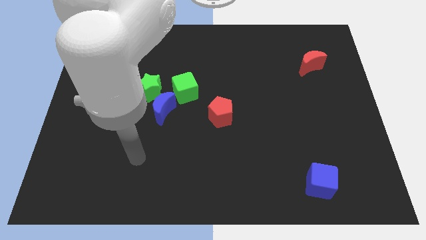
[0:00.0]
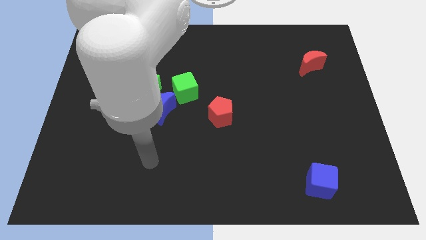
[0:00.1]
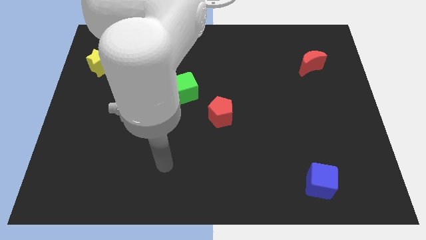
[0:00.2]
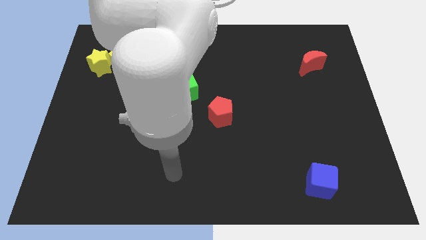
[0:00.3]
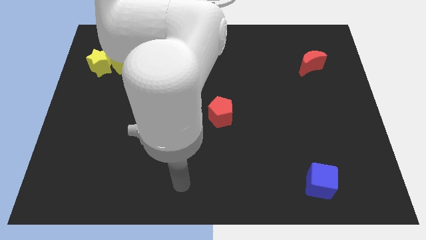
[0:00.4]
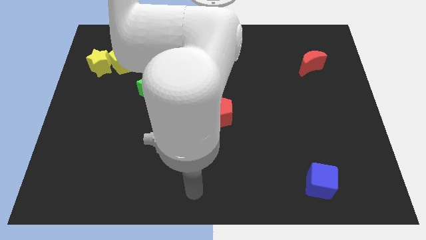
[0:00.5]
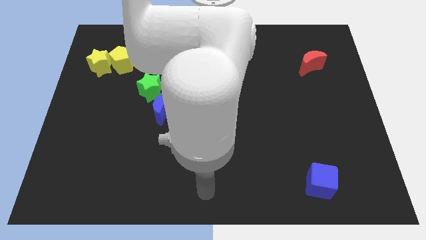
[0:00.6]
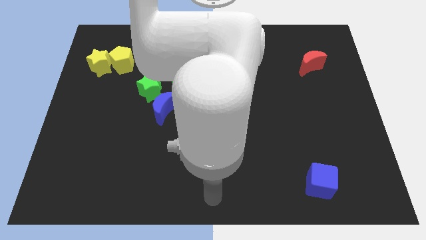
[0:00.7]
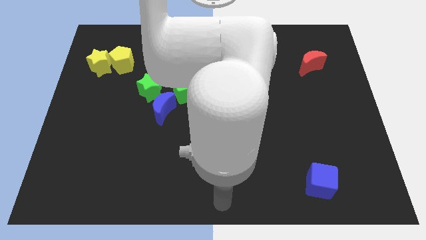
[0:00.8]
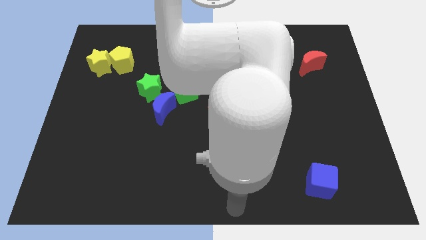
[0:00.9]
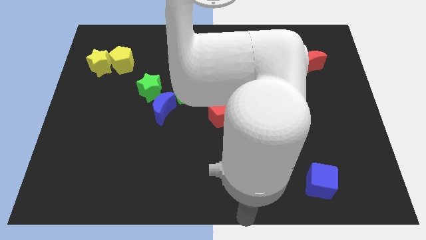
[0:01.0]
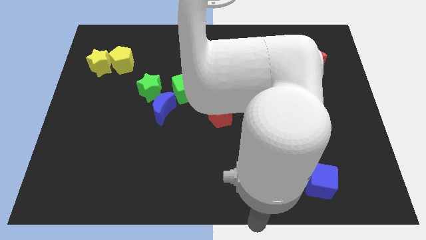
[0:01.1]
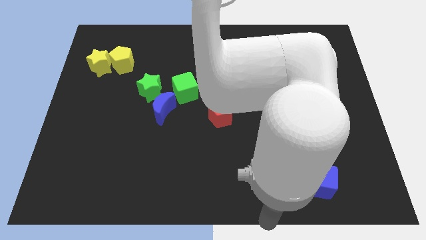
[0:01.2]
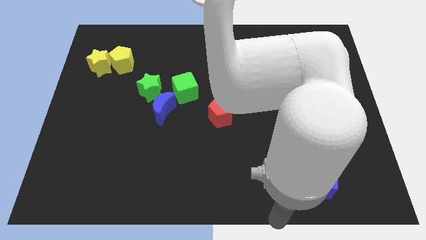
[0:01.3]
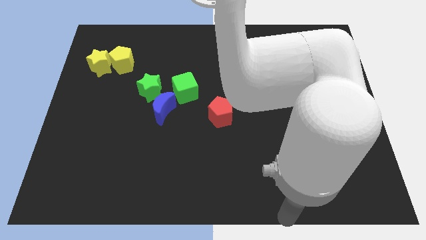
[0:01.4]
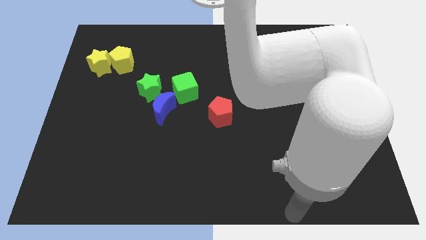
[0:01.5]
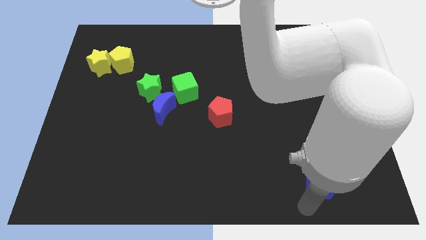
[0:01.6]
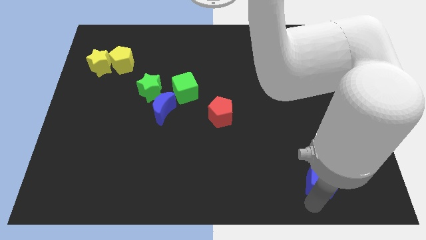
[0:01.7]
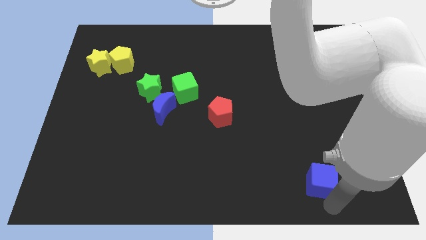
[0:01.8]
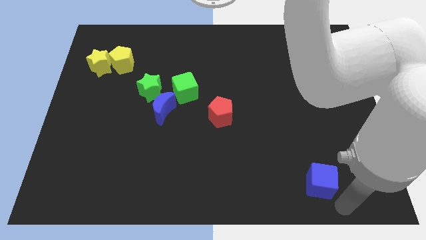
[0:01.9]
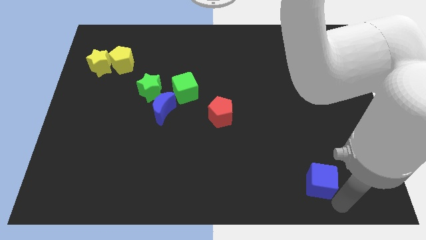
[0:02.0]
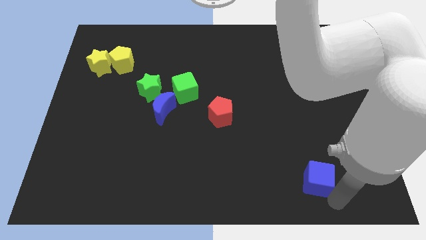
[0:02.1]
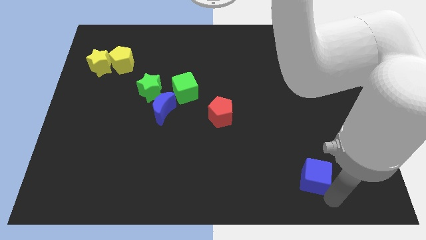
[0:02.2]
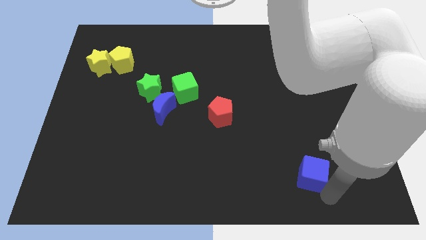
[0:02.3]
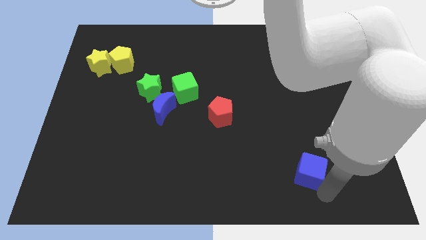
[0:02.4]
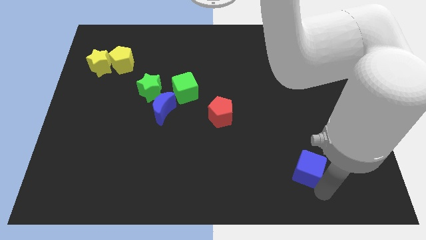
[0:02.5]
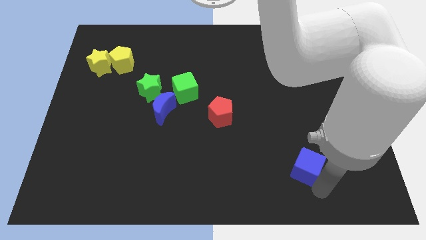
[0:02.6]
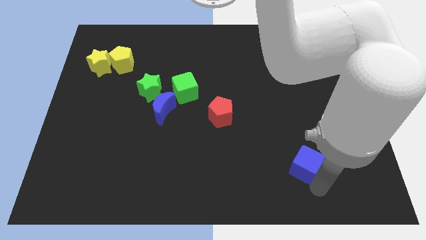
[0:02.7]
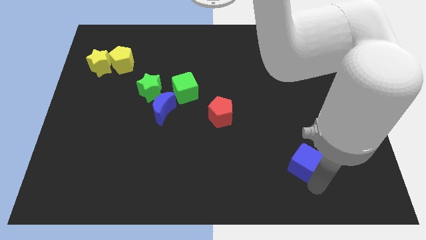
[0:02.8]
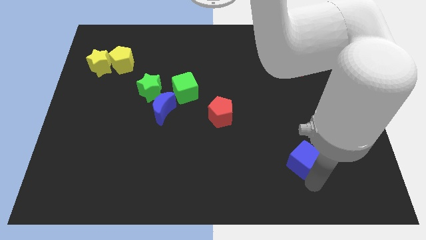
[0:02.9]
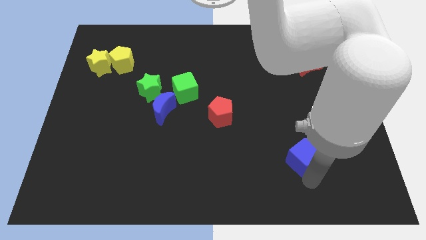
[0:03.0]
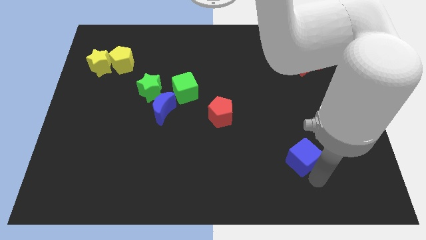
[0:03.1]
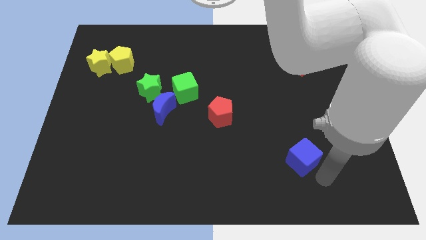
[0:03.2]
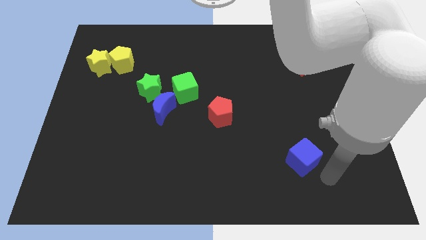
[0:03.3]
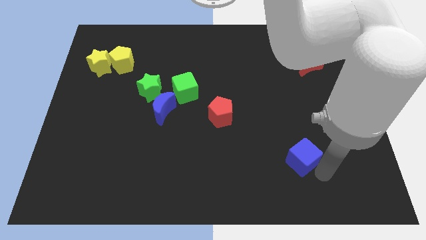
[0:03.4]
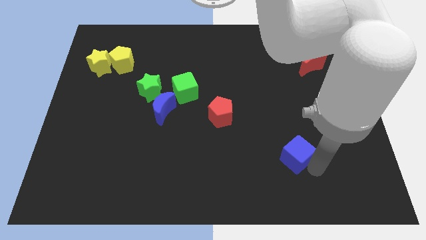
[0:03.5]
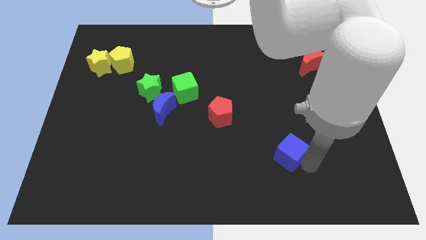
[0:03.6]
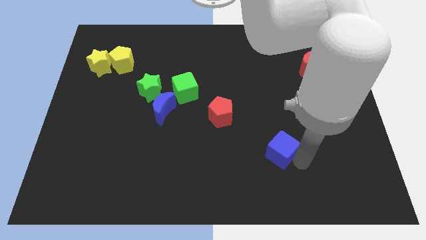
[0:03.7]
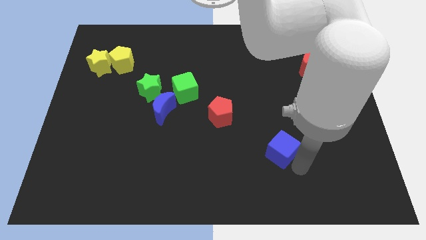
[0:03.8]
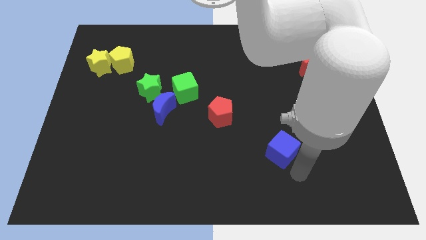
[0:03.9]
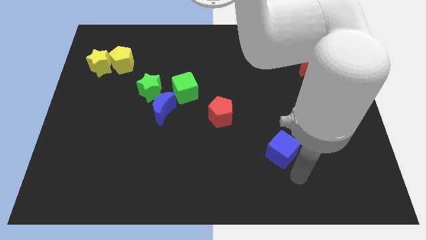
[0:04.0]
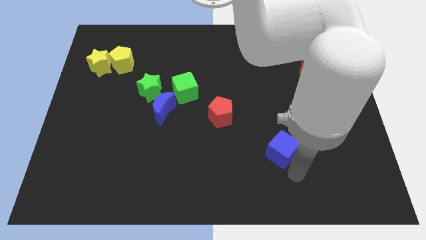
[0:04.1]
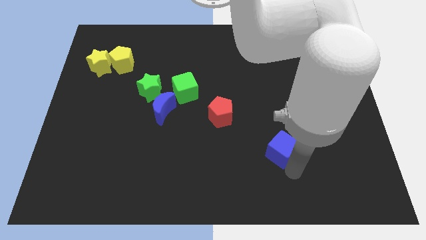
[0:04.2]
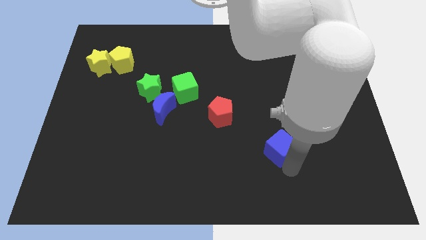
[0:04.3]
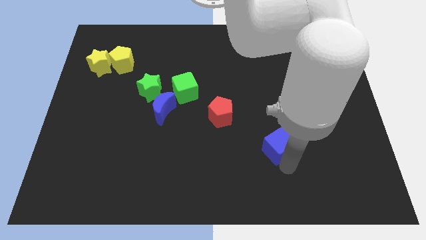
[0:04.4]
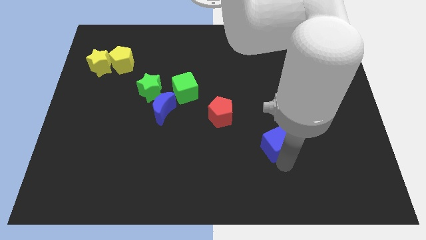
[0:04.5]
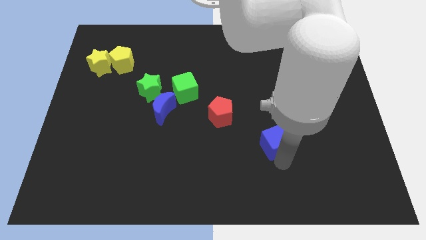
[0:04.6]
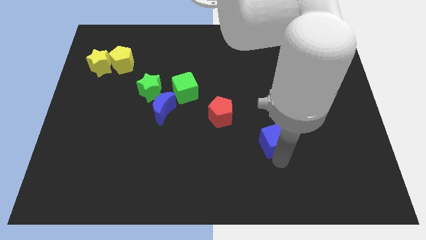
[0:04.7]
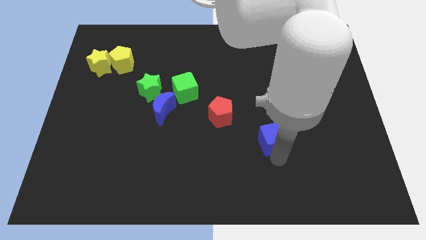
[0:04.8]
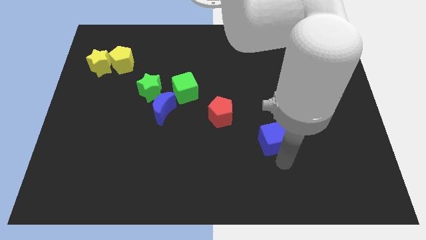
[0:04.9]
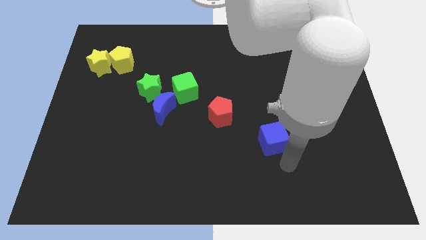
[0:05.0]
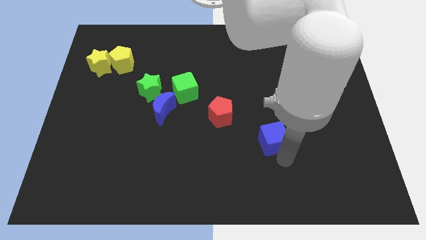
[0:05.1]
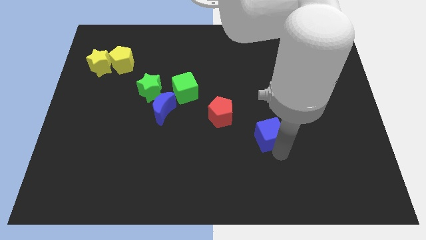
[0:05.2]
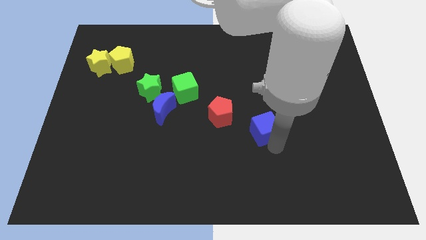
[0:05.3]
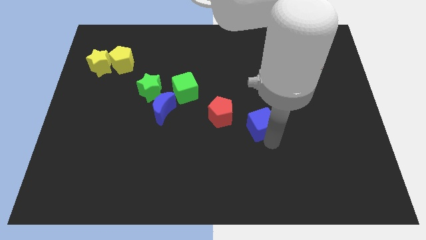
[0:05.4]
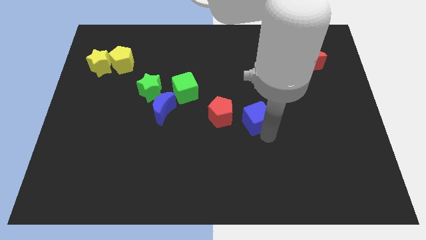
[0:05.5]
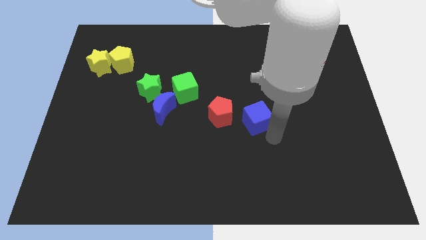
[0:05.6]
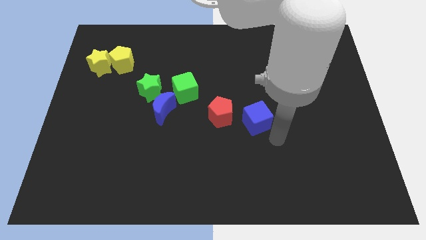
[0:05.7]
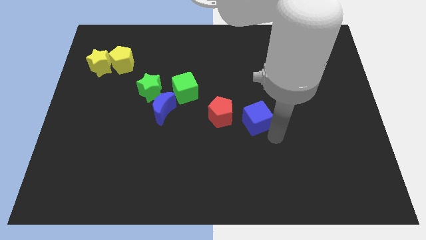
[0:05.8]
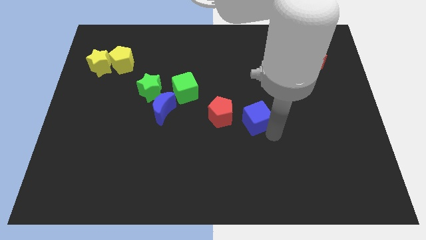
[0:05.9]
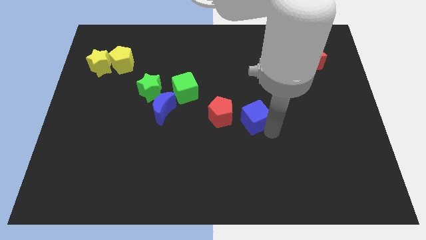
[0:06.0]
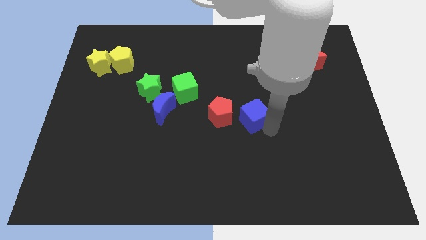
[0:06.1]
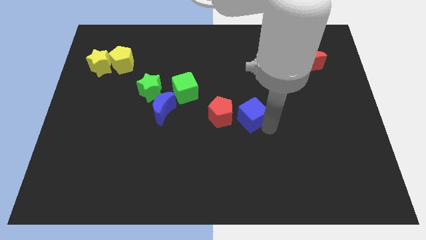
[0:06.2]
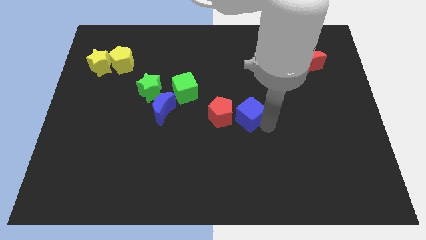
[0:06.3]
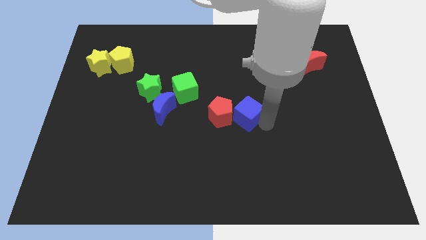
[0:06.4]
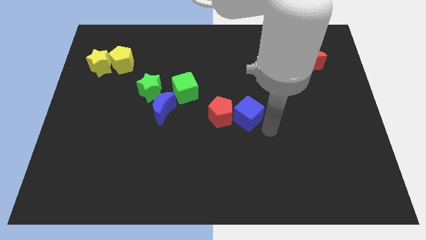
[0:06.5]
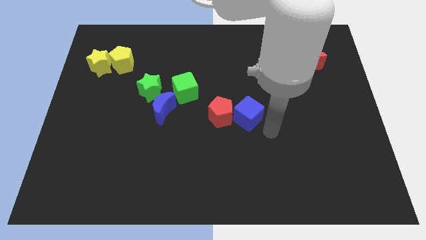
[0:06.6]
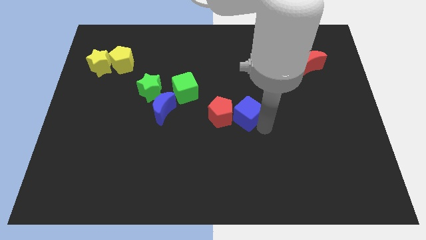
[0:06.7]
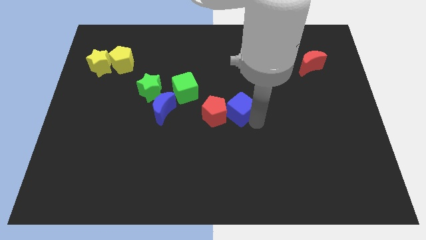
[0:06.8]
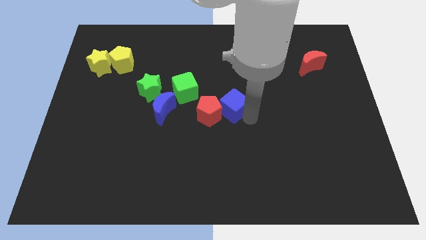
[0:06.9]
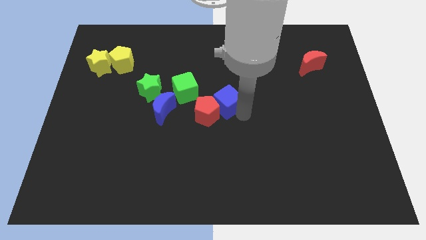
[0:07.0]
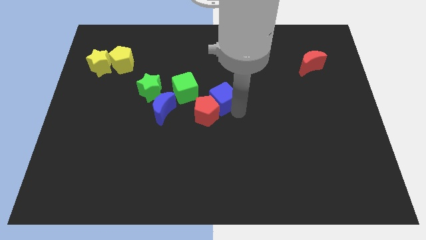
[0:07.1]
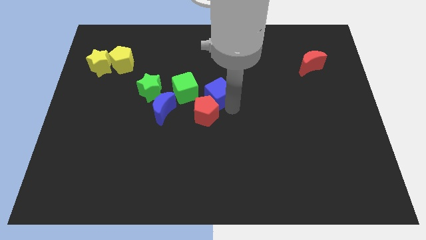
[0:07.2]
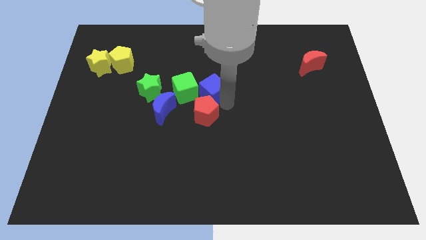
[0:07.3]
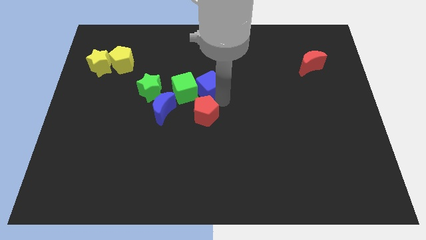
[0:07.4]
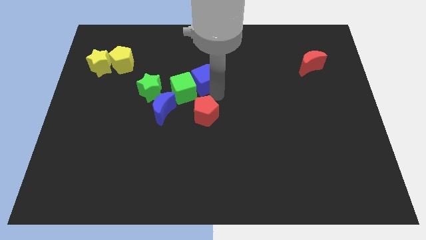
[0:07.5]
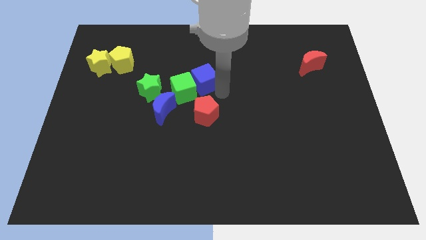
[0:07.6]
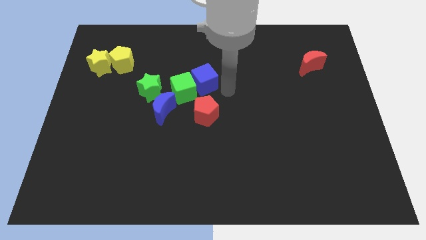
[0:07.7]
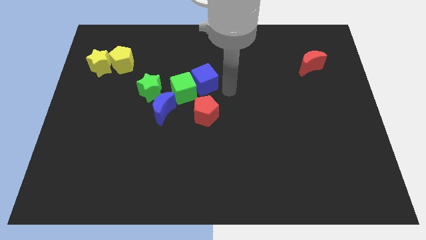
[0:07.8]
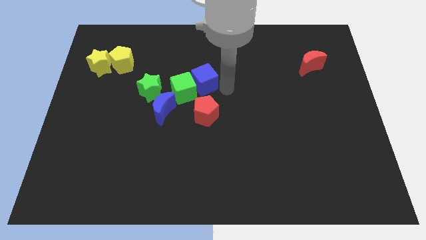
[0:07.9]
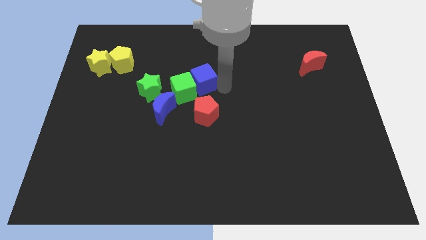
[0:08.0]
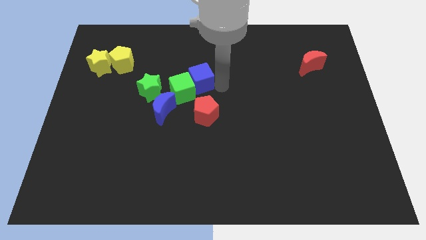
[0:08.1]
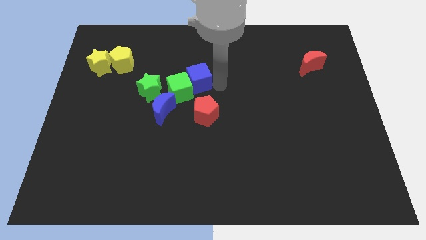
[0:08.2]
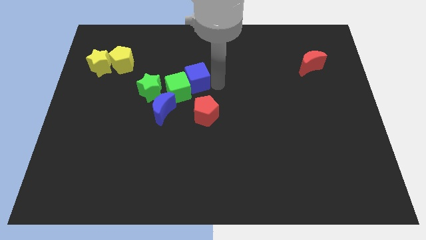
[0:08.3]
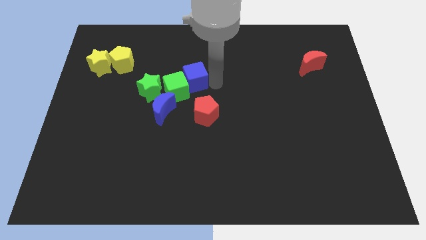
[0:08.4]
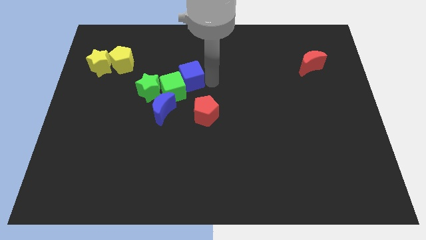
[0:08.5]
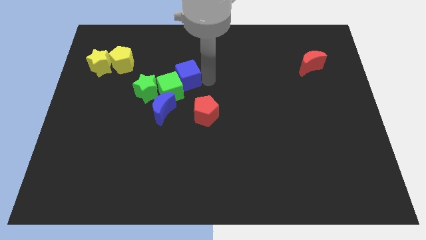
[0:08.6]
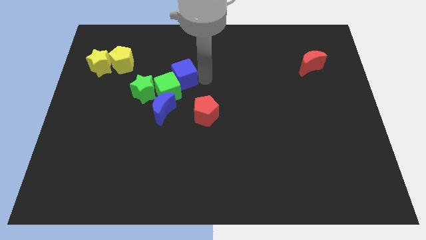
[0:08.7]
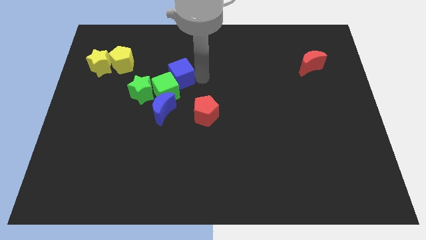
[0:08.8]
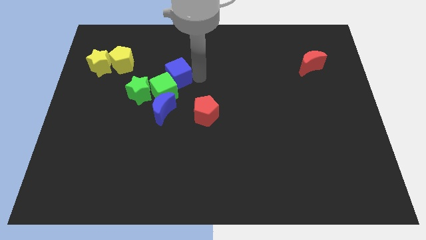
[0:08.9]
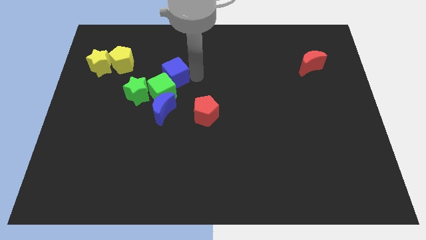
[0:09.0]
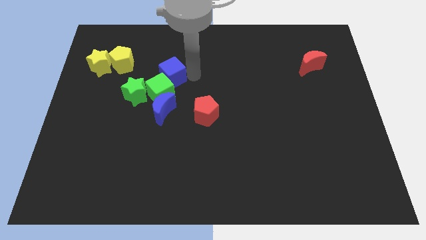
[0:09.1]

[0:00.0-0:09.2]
move the blue cube to the right of the yellow pentagon
